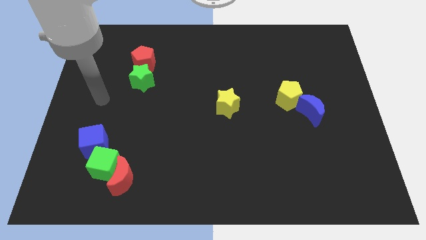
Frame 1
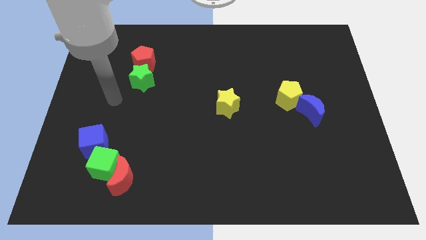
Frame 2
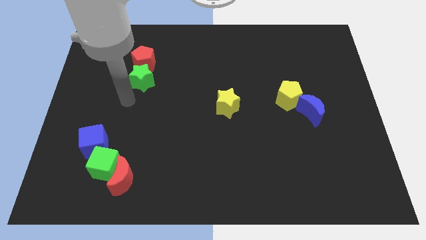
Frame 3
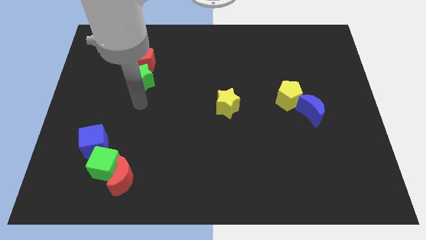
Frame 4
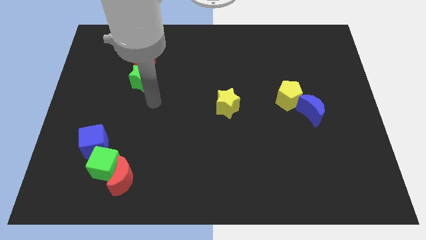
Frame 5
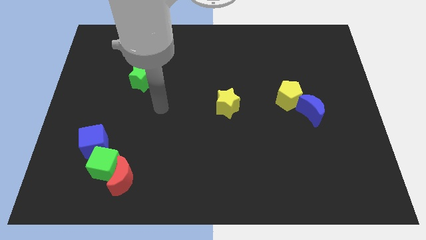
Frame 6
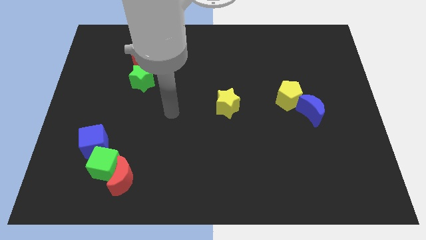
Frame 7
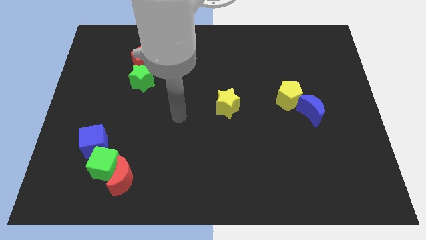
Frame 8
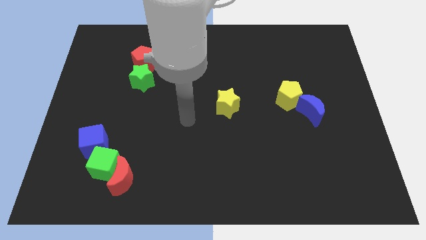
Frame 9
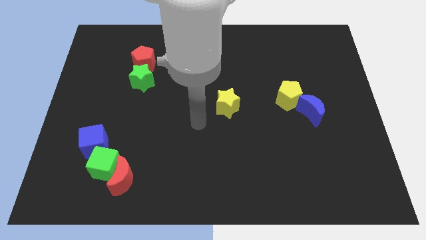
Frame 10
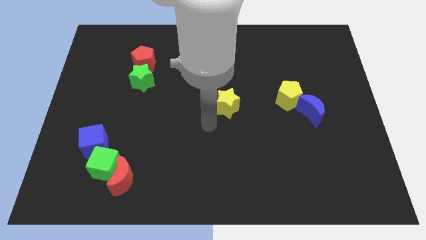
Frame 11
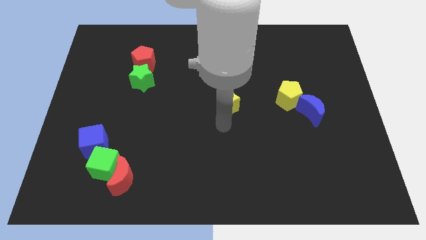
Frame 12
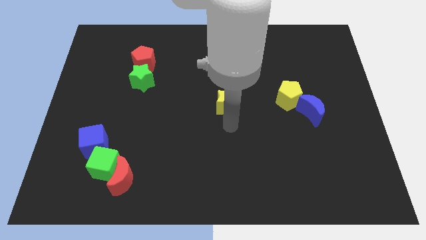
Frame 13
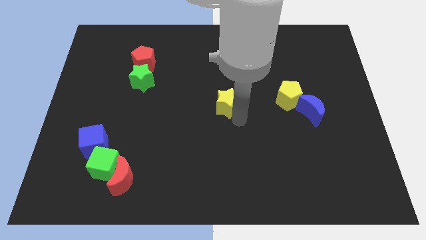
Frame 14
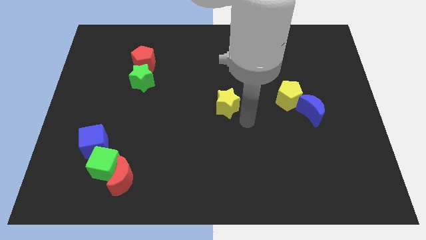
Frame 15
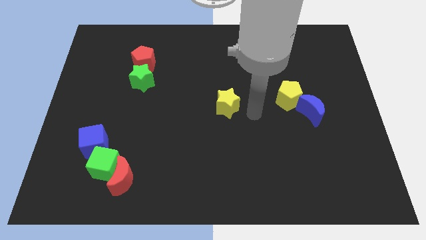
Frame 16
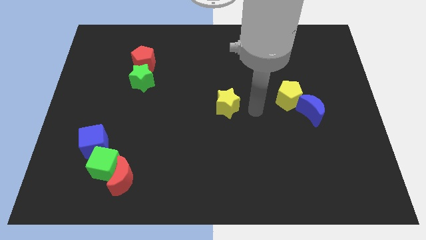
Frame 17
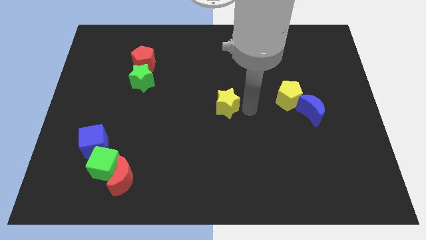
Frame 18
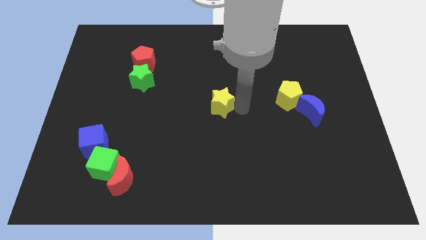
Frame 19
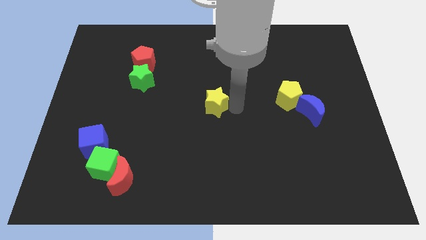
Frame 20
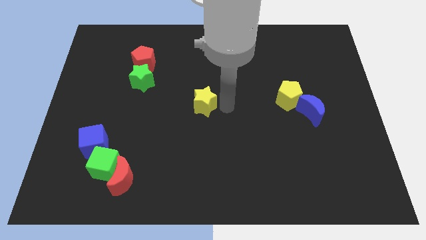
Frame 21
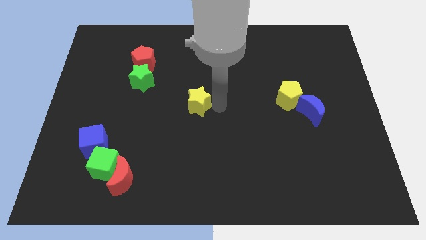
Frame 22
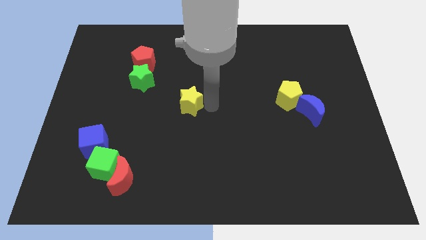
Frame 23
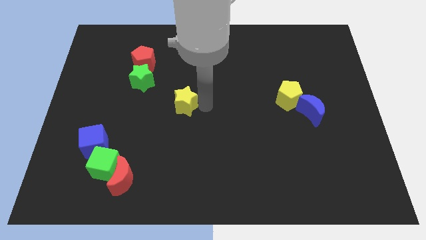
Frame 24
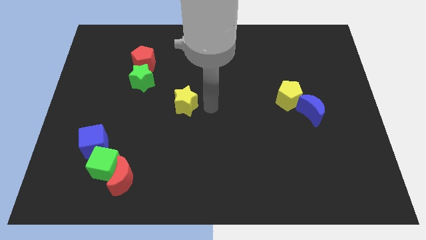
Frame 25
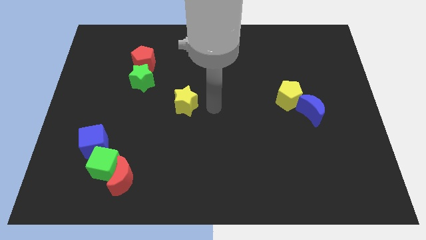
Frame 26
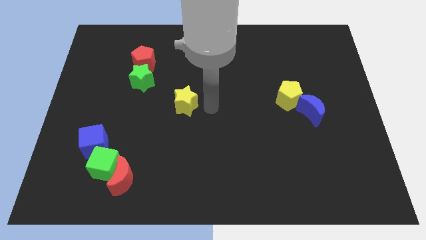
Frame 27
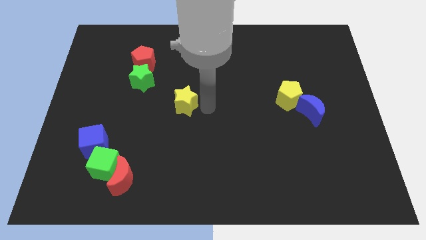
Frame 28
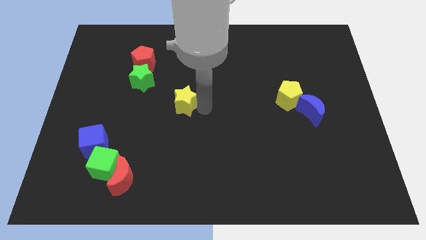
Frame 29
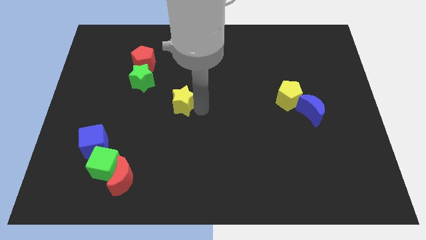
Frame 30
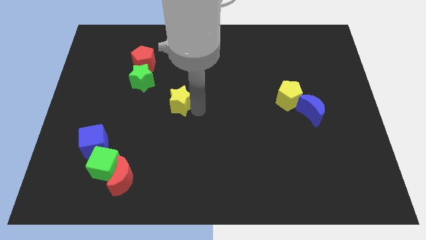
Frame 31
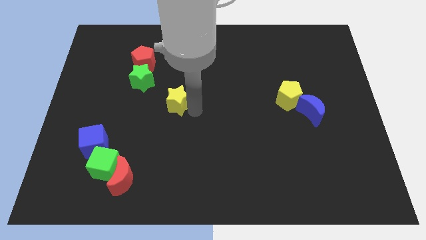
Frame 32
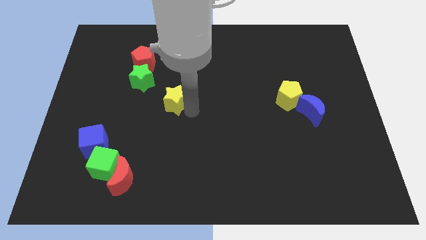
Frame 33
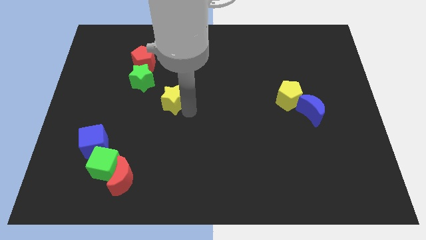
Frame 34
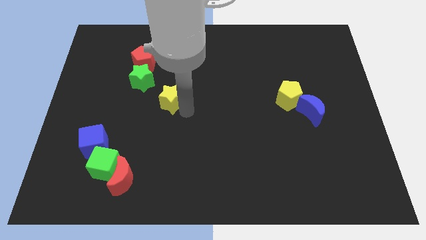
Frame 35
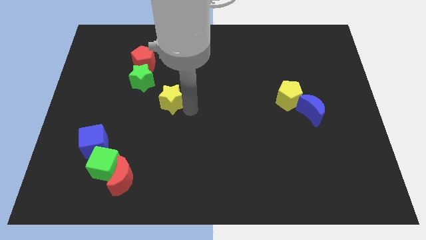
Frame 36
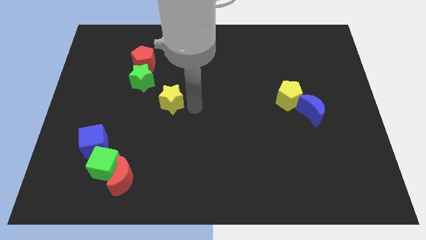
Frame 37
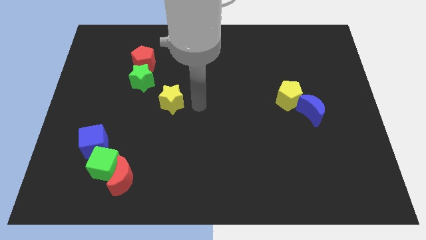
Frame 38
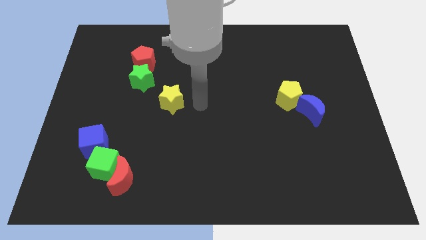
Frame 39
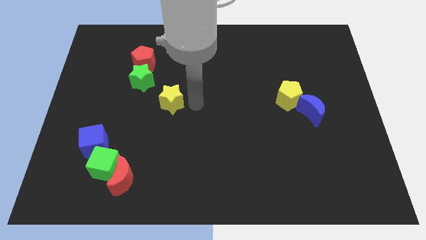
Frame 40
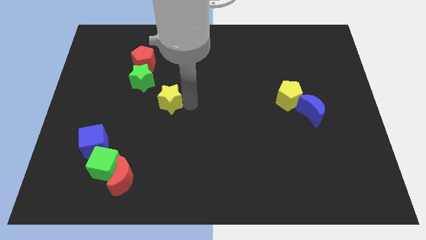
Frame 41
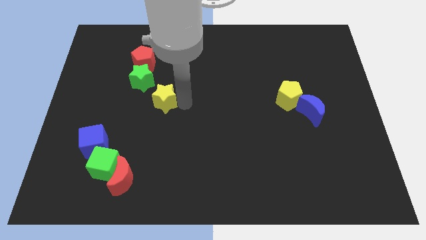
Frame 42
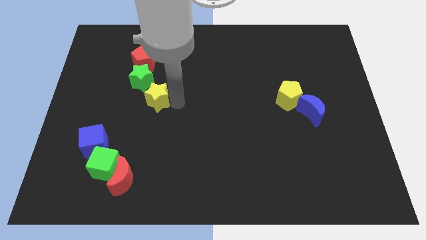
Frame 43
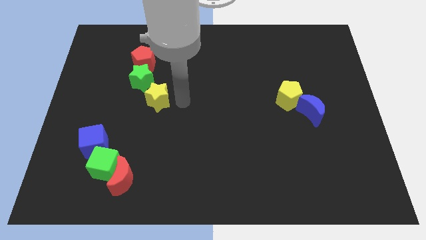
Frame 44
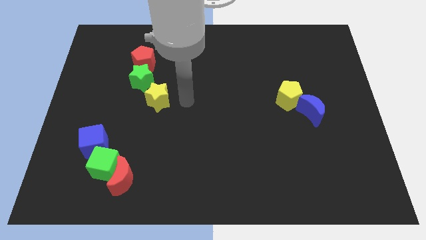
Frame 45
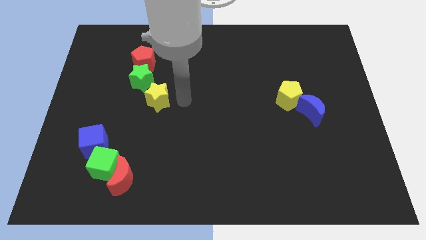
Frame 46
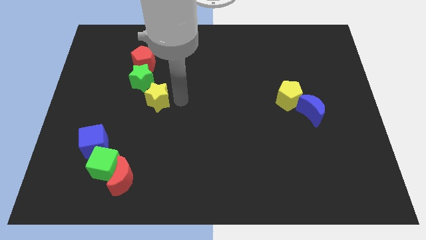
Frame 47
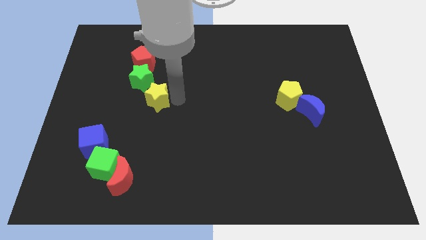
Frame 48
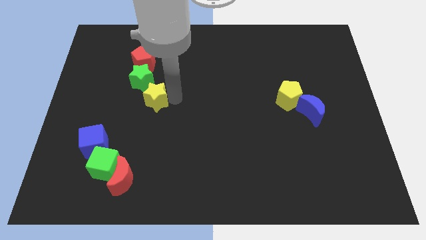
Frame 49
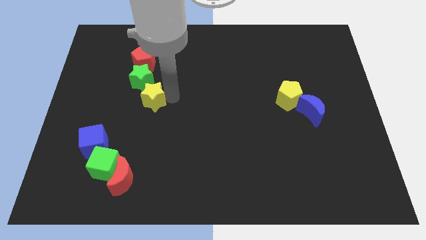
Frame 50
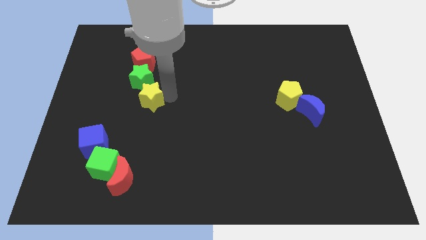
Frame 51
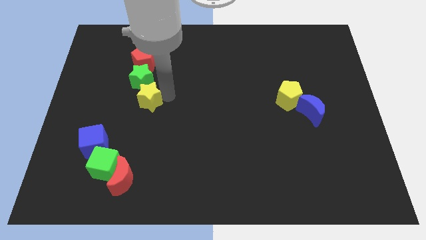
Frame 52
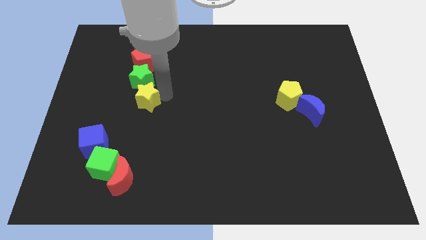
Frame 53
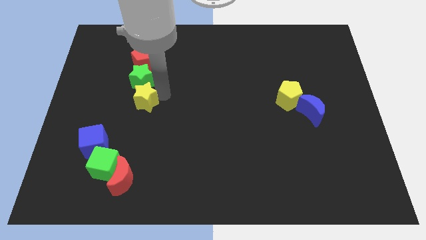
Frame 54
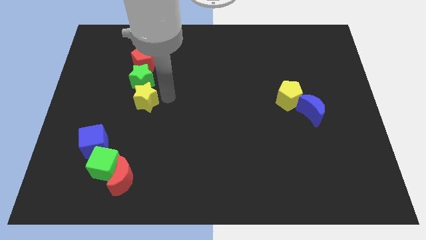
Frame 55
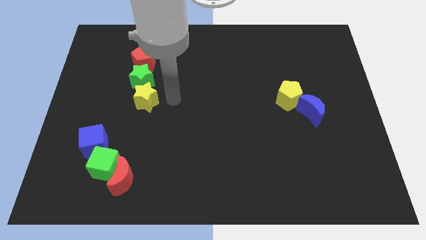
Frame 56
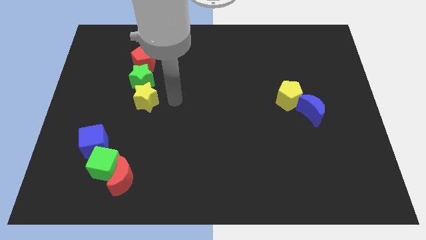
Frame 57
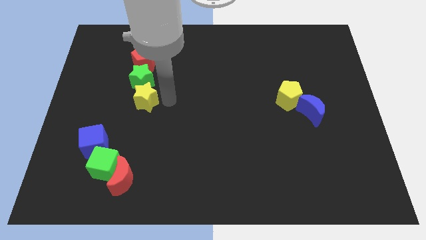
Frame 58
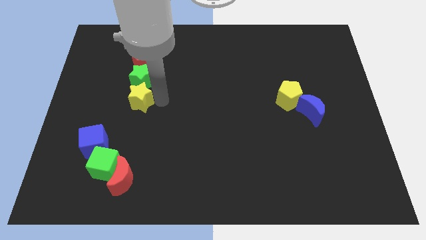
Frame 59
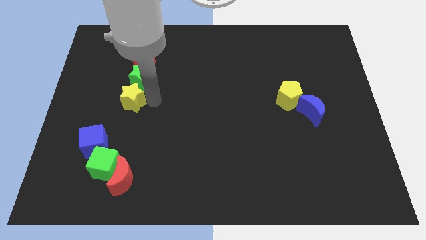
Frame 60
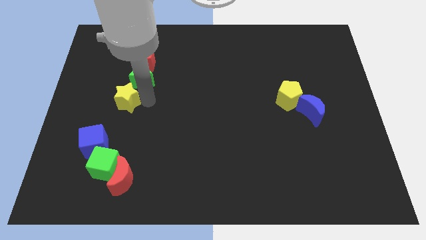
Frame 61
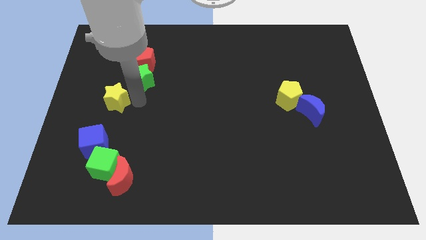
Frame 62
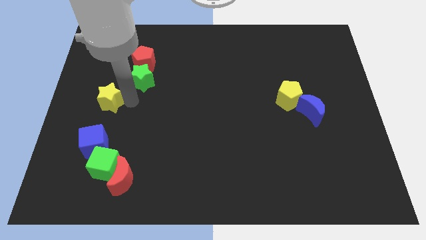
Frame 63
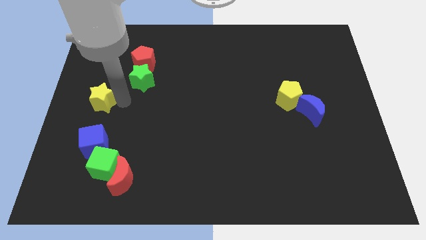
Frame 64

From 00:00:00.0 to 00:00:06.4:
put the yellow star to the left side

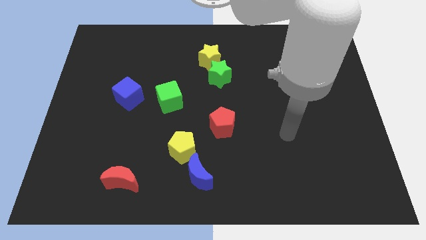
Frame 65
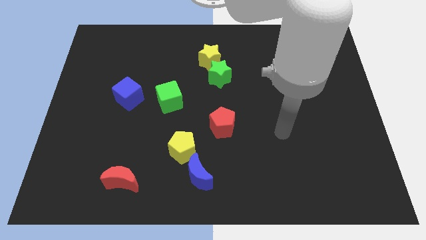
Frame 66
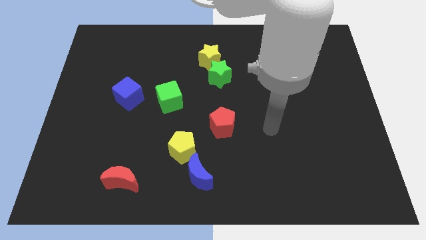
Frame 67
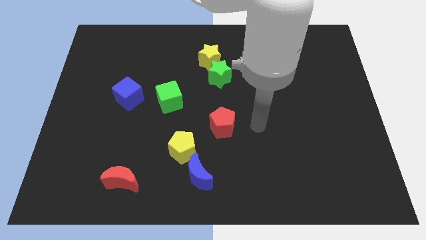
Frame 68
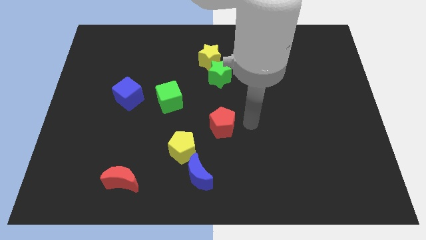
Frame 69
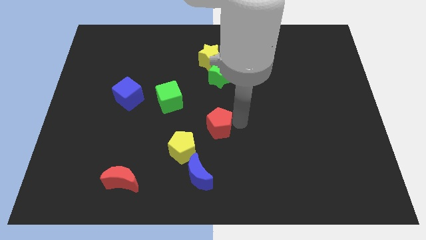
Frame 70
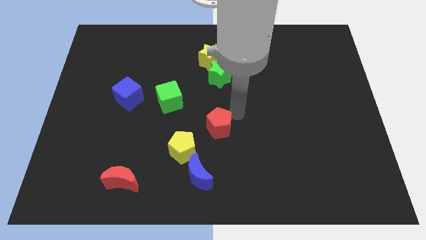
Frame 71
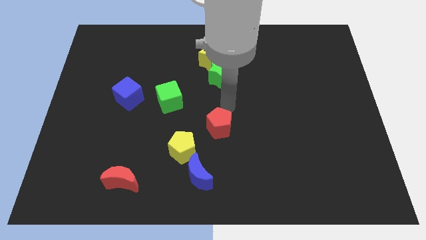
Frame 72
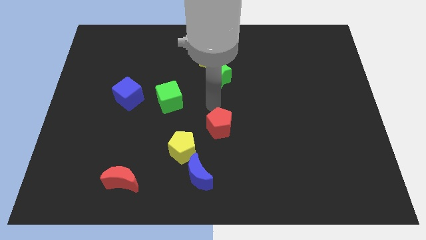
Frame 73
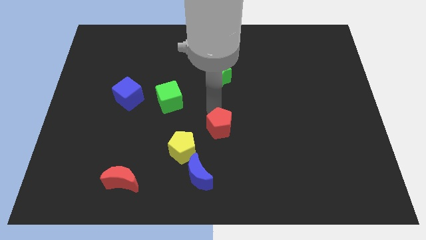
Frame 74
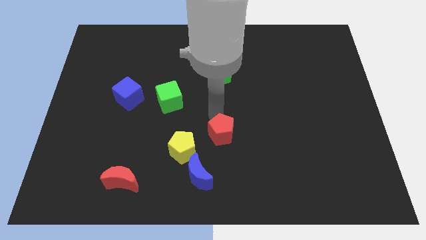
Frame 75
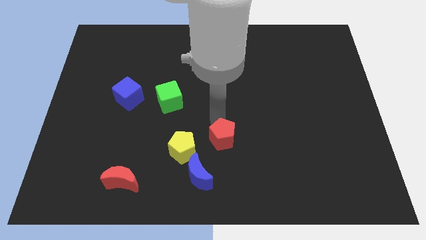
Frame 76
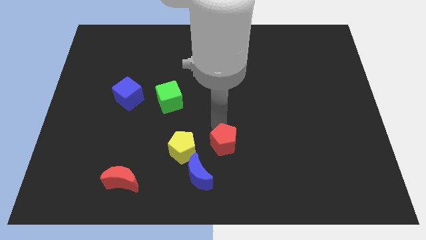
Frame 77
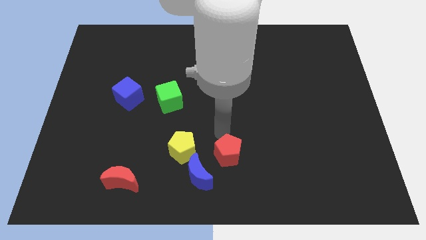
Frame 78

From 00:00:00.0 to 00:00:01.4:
put the red pentagon to the bottom side
